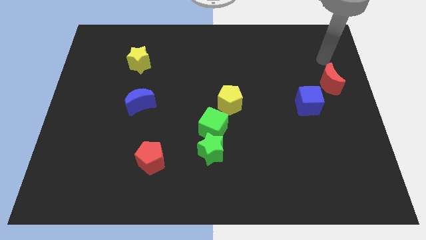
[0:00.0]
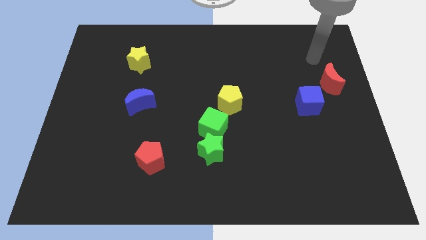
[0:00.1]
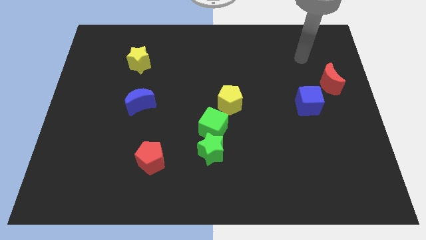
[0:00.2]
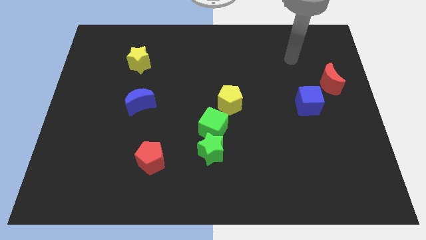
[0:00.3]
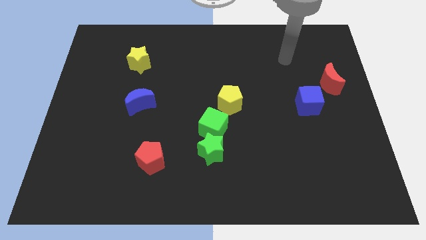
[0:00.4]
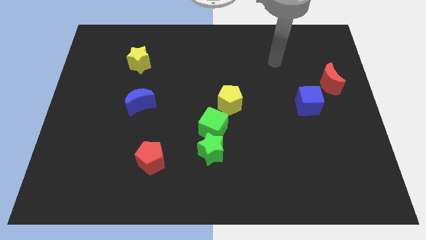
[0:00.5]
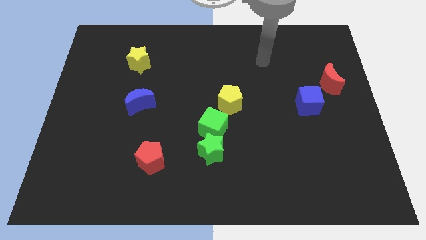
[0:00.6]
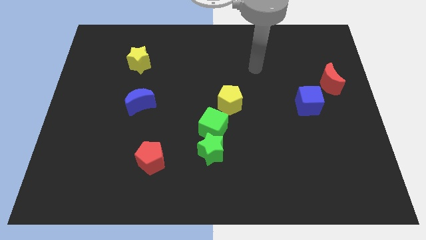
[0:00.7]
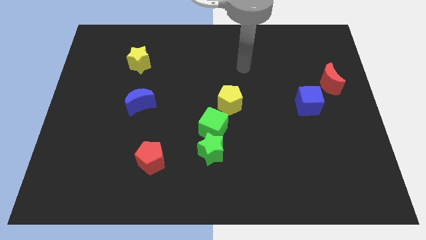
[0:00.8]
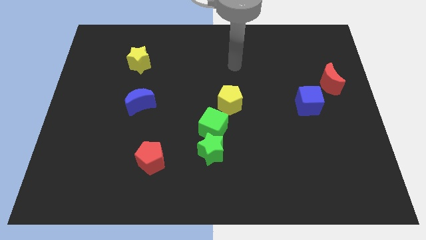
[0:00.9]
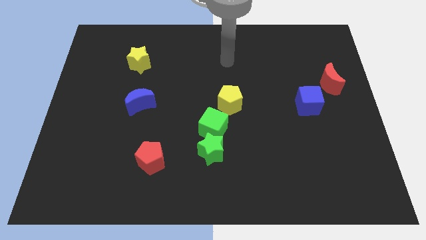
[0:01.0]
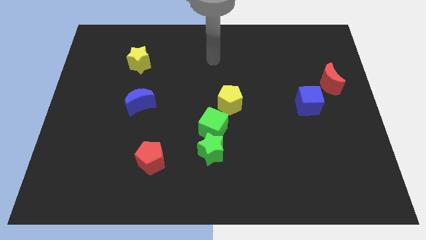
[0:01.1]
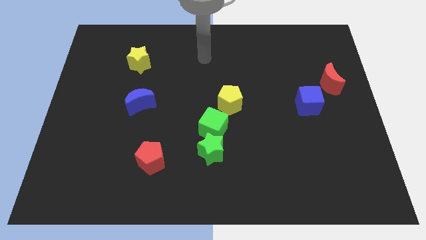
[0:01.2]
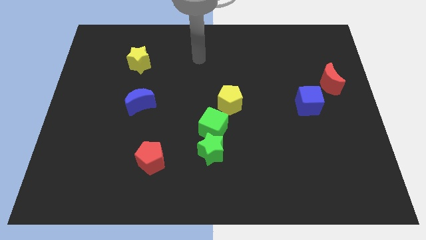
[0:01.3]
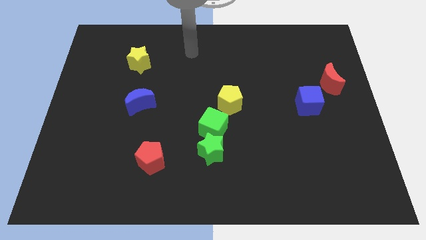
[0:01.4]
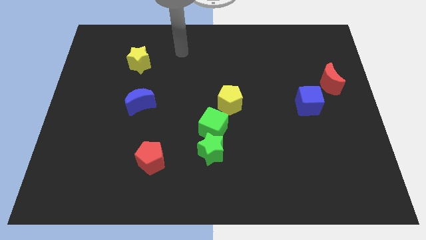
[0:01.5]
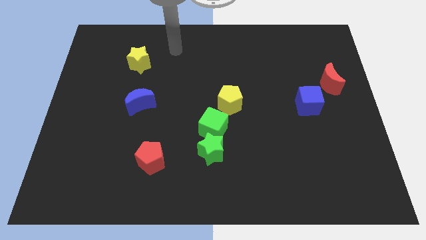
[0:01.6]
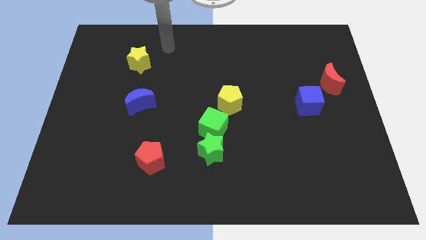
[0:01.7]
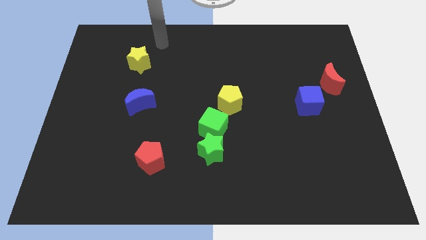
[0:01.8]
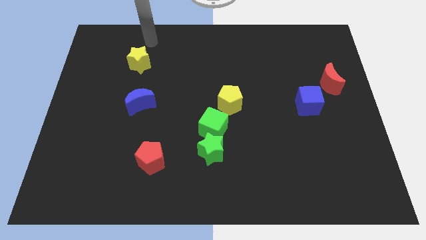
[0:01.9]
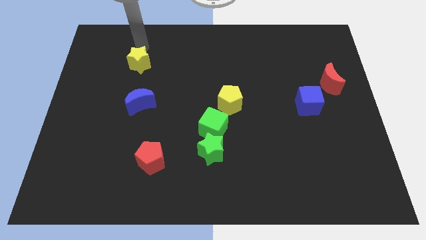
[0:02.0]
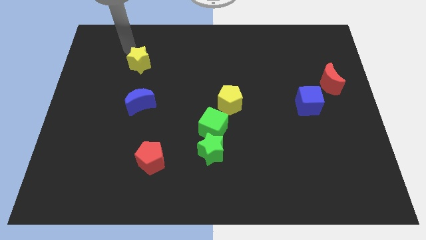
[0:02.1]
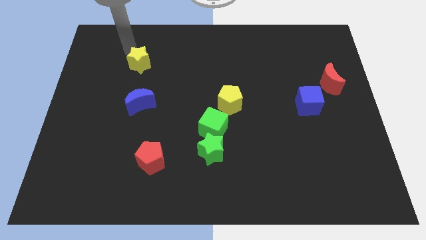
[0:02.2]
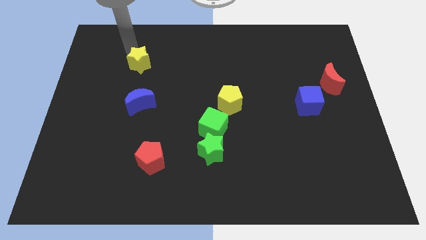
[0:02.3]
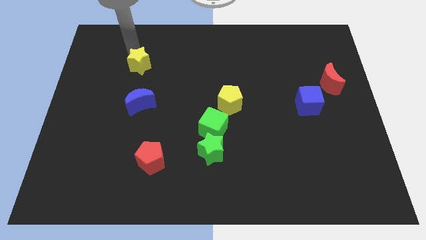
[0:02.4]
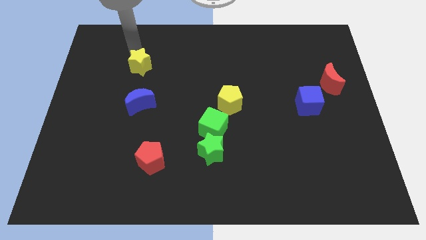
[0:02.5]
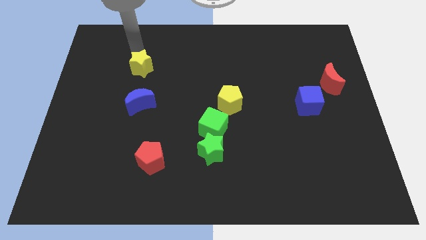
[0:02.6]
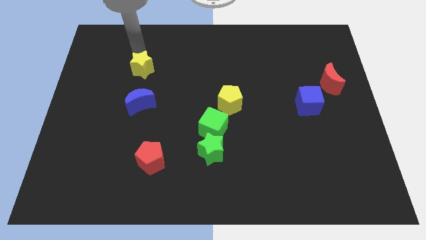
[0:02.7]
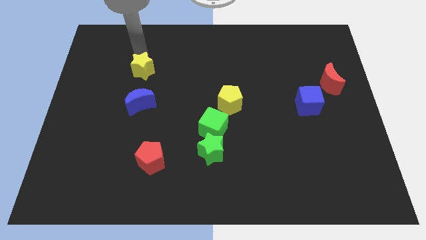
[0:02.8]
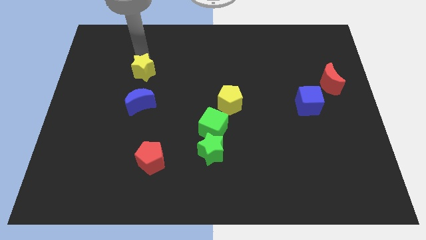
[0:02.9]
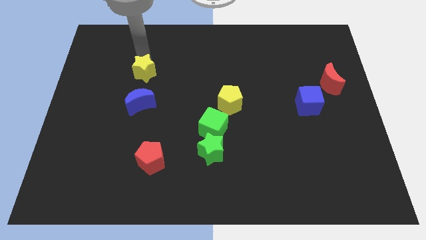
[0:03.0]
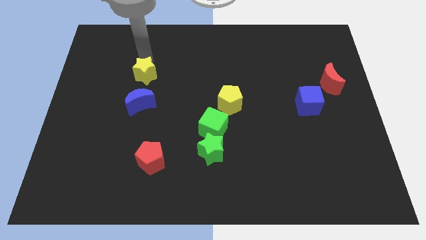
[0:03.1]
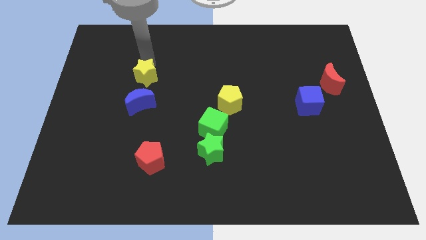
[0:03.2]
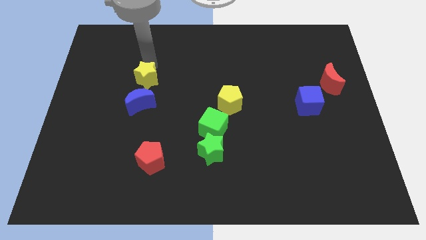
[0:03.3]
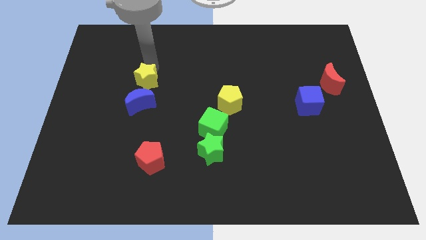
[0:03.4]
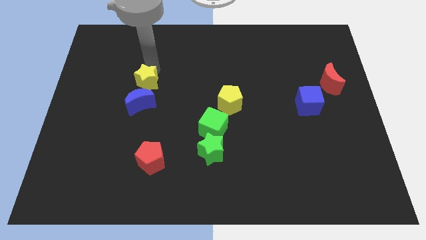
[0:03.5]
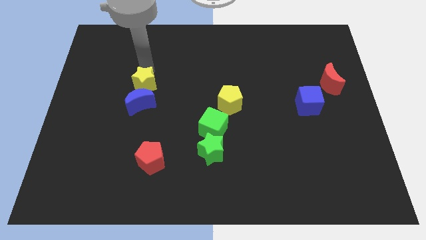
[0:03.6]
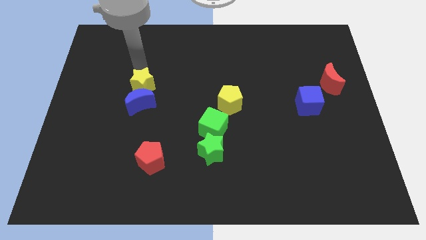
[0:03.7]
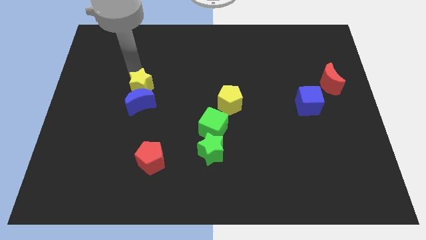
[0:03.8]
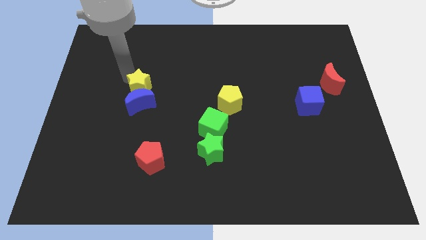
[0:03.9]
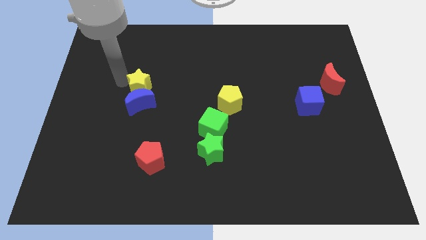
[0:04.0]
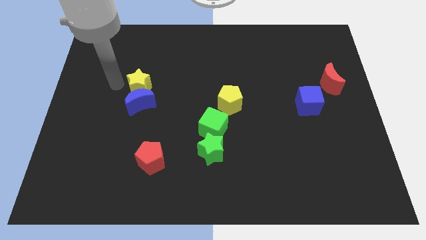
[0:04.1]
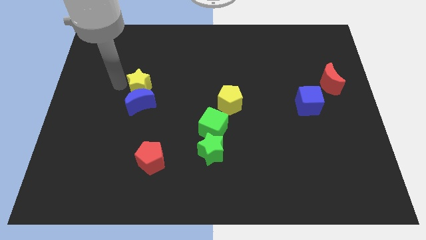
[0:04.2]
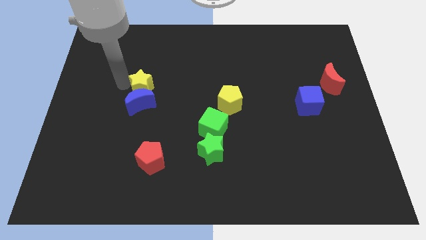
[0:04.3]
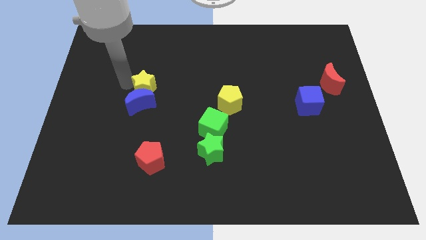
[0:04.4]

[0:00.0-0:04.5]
slightly slide the yellow star downwards and right

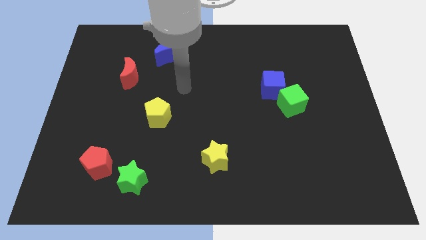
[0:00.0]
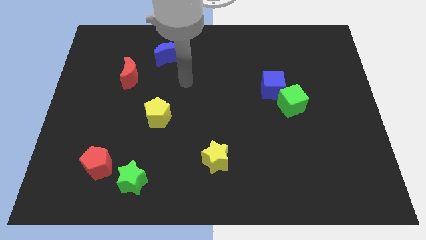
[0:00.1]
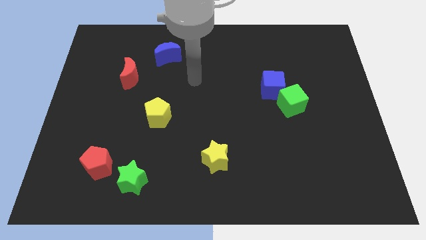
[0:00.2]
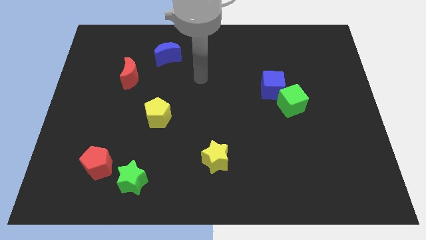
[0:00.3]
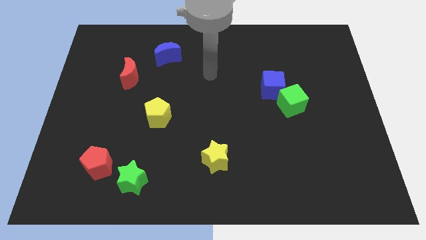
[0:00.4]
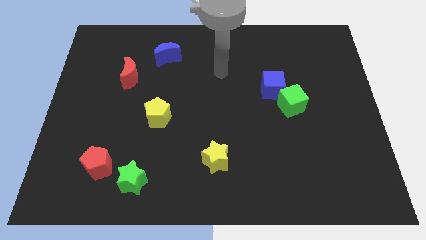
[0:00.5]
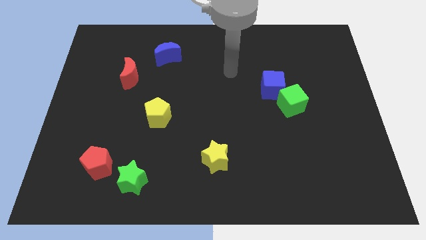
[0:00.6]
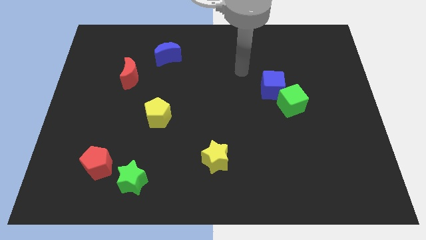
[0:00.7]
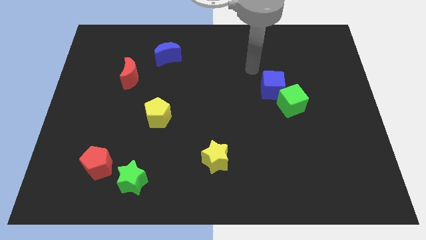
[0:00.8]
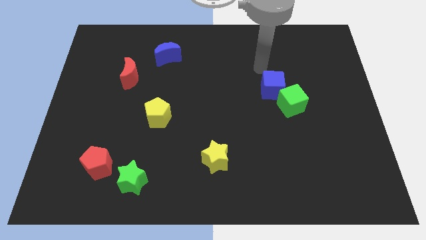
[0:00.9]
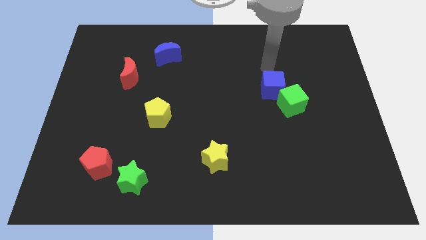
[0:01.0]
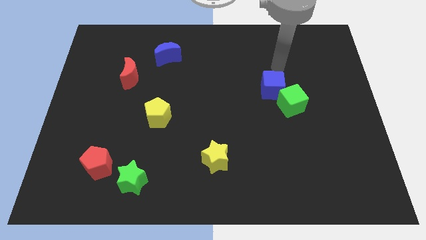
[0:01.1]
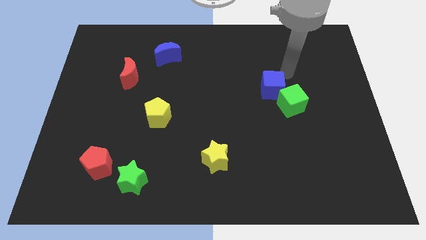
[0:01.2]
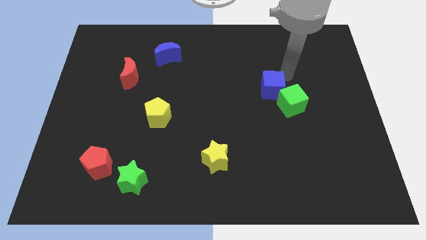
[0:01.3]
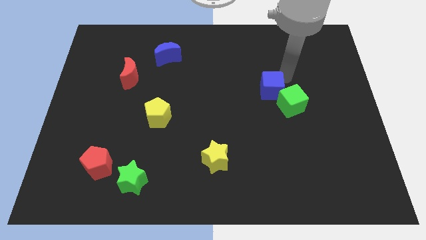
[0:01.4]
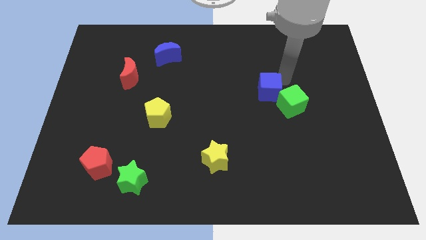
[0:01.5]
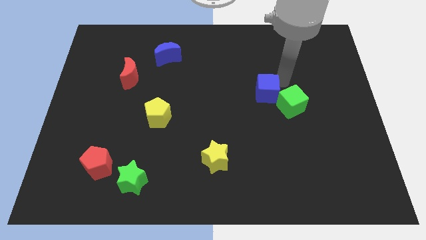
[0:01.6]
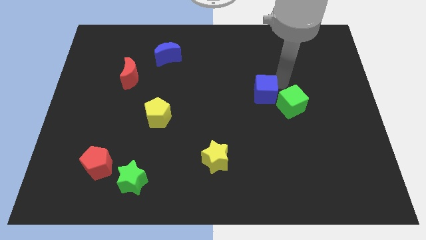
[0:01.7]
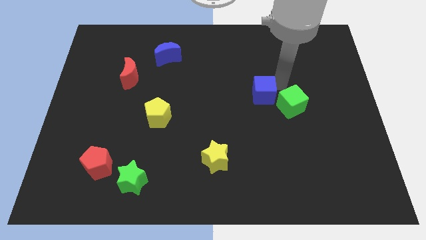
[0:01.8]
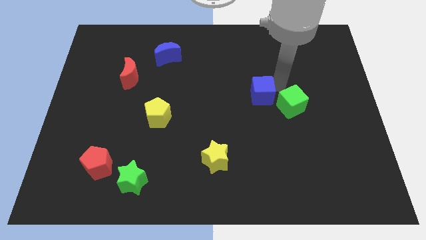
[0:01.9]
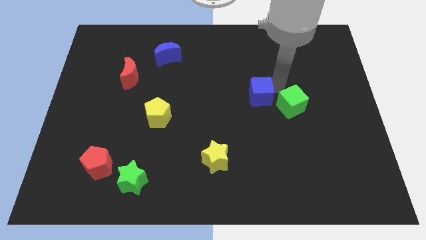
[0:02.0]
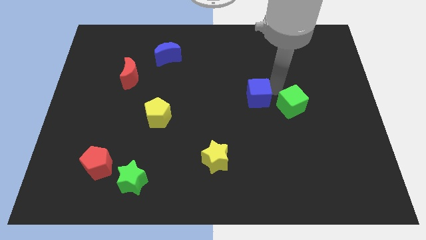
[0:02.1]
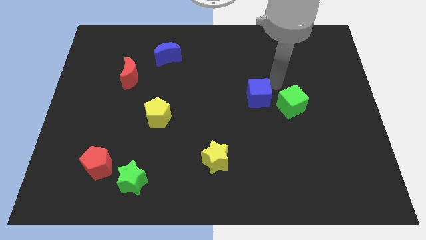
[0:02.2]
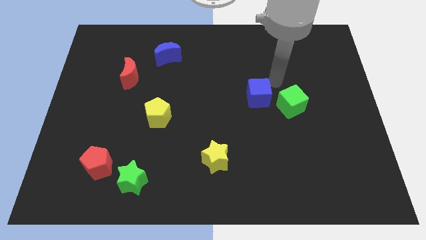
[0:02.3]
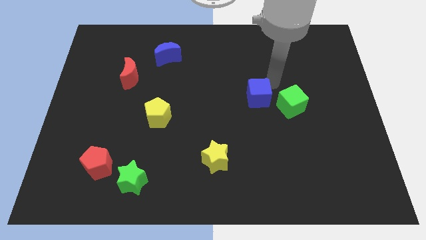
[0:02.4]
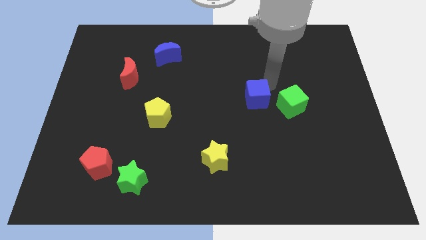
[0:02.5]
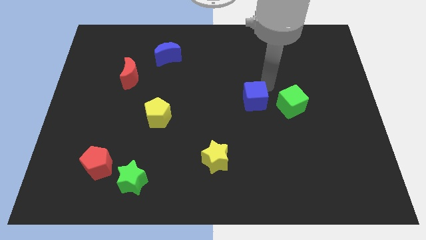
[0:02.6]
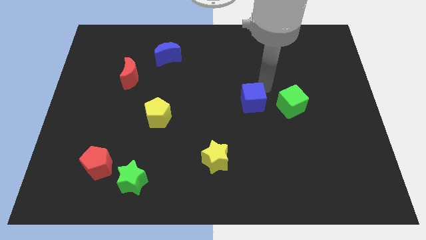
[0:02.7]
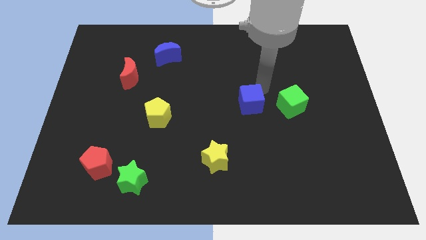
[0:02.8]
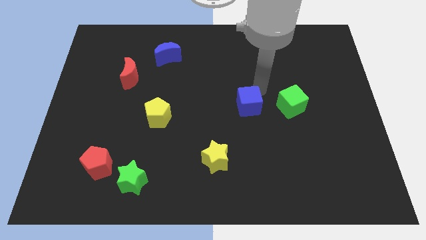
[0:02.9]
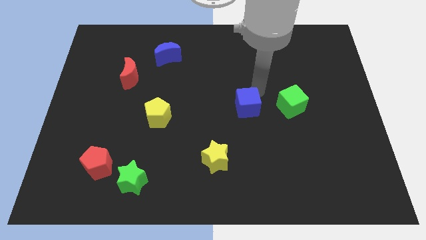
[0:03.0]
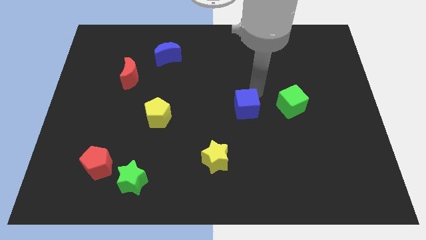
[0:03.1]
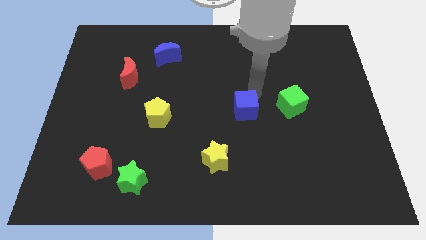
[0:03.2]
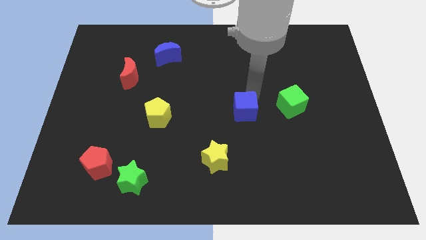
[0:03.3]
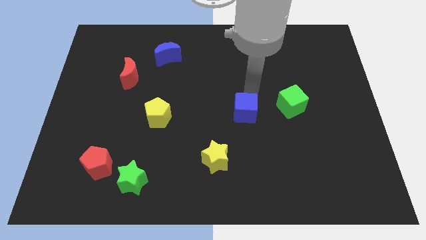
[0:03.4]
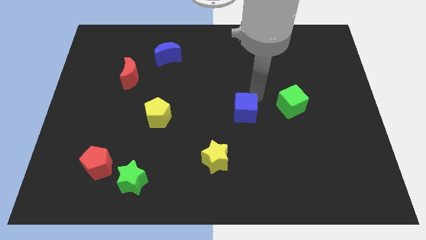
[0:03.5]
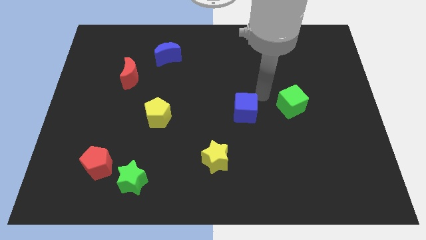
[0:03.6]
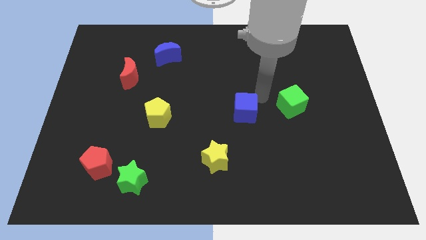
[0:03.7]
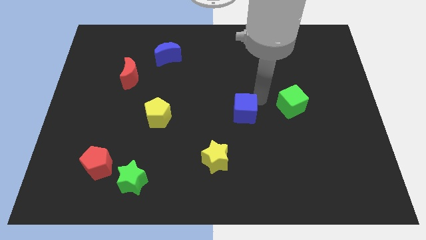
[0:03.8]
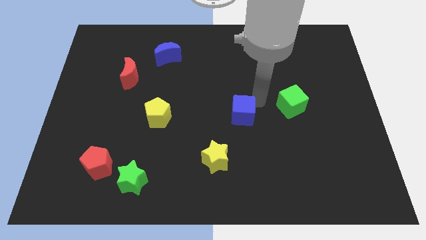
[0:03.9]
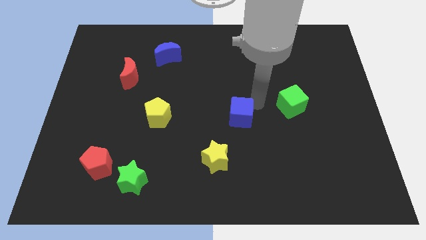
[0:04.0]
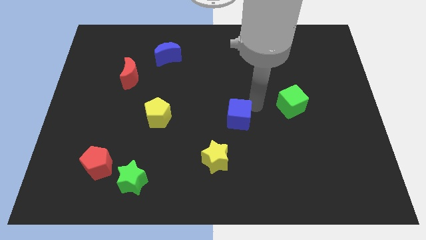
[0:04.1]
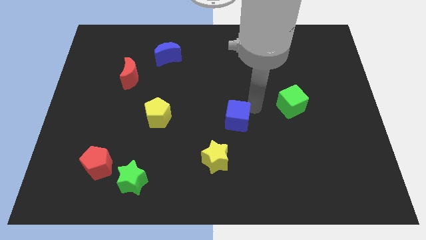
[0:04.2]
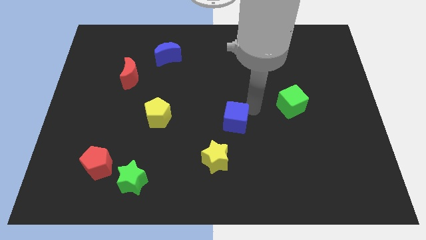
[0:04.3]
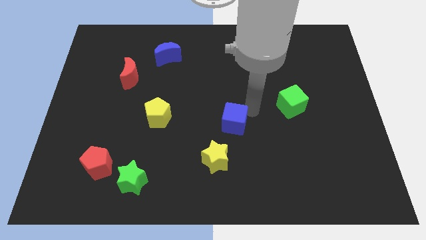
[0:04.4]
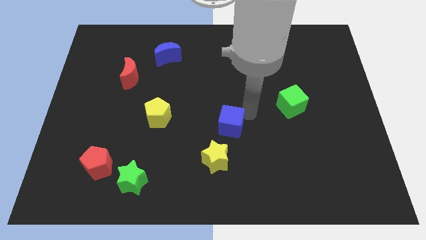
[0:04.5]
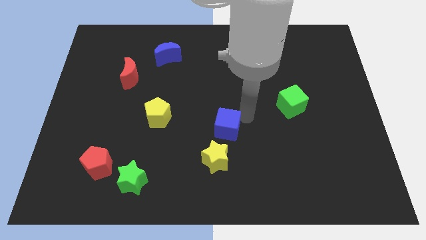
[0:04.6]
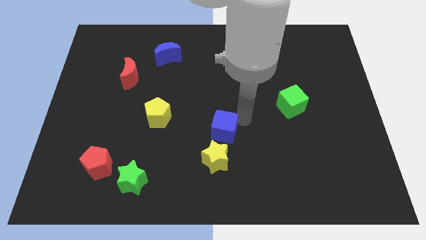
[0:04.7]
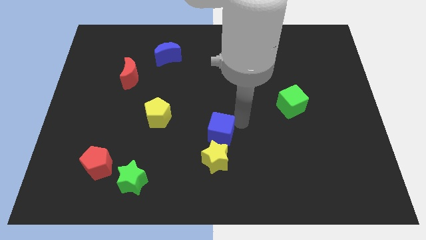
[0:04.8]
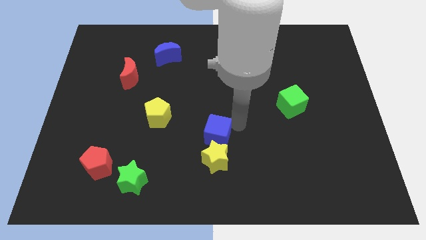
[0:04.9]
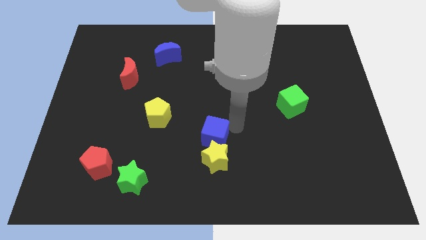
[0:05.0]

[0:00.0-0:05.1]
move the blue cube down and to the left
